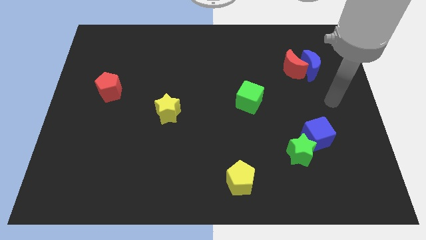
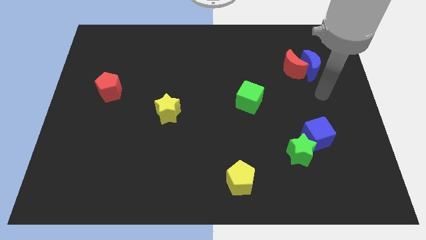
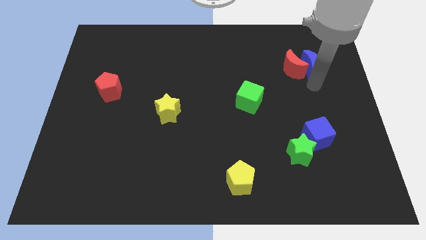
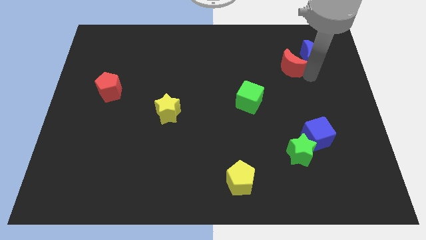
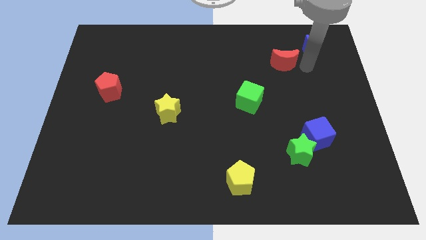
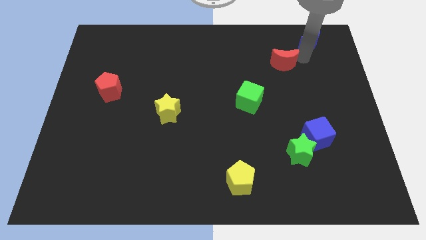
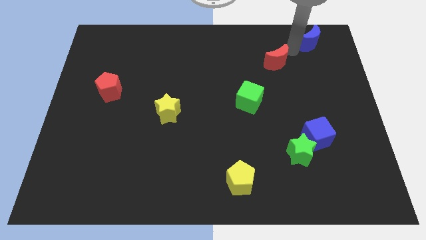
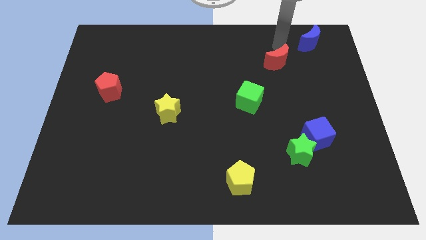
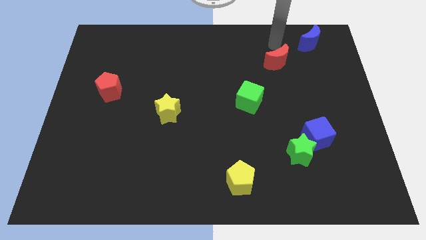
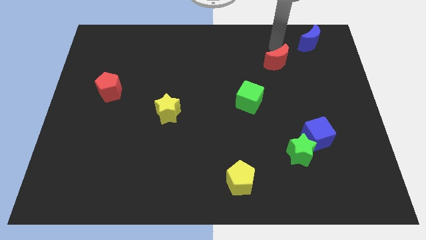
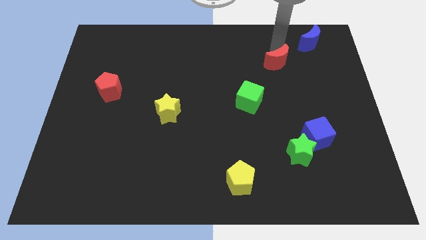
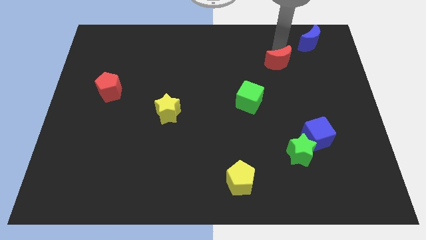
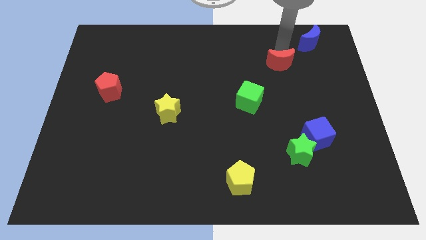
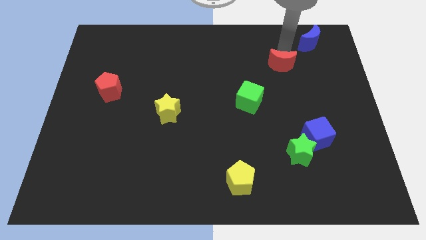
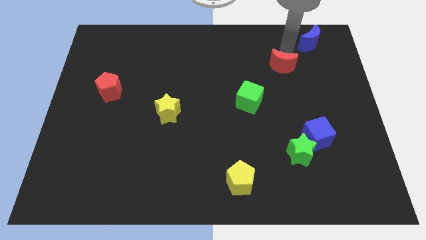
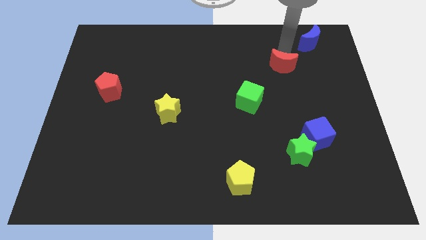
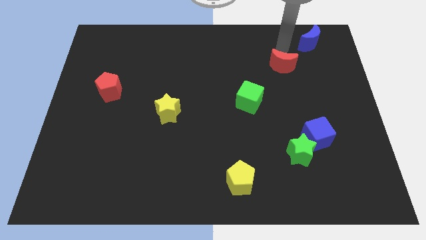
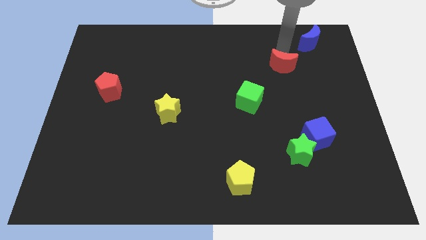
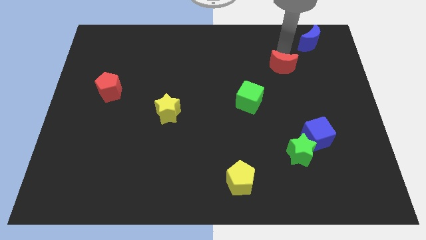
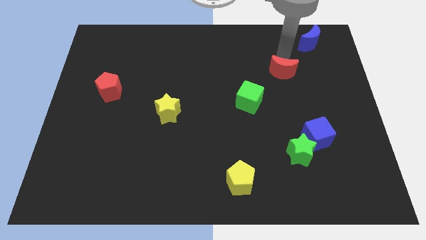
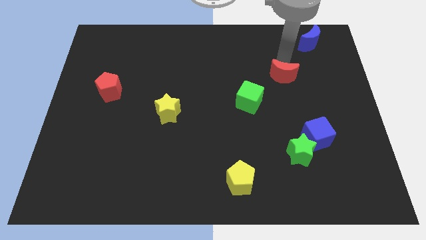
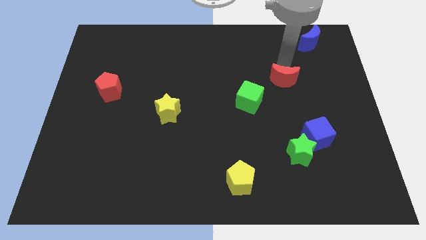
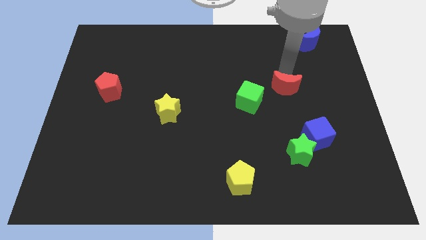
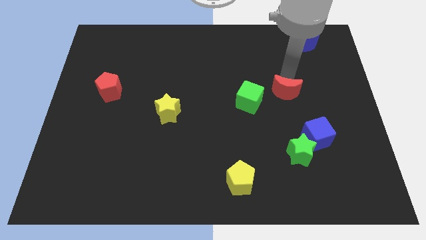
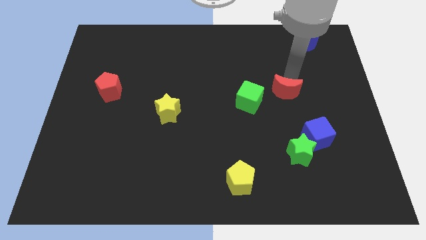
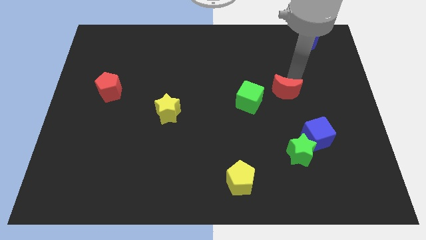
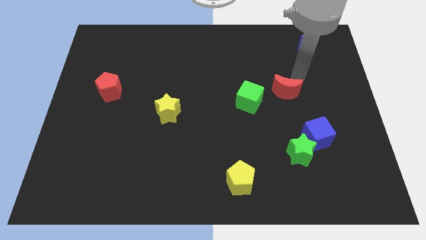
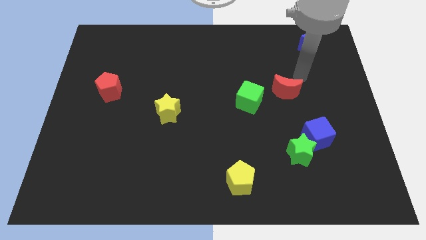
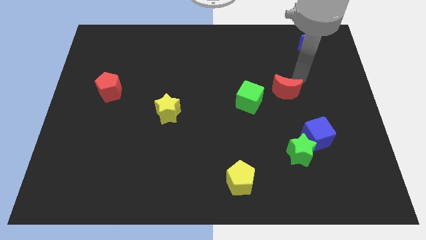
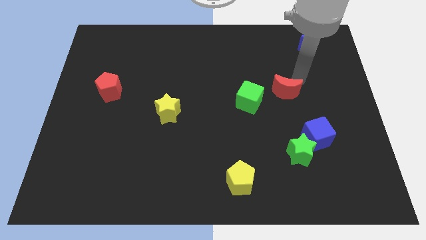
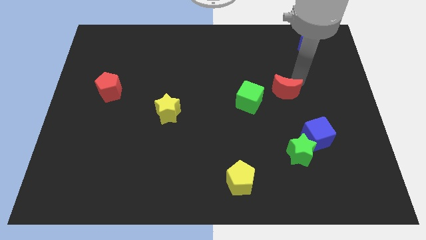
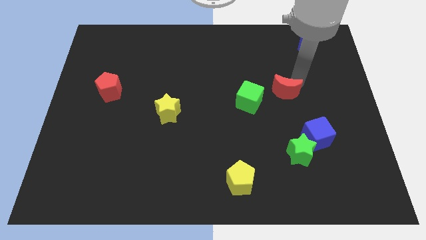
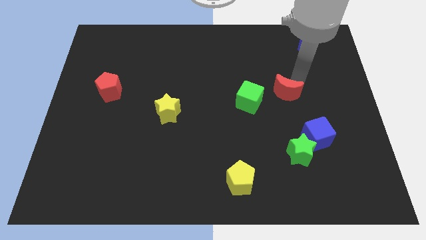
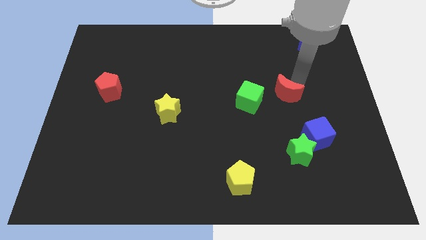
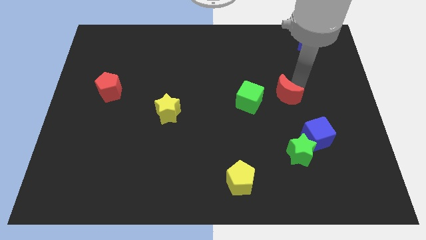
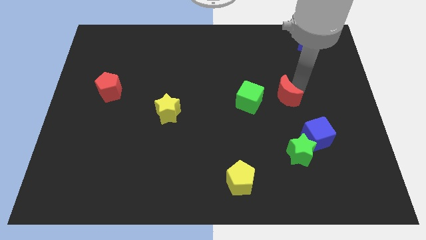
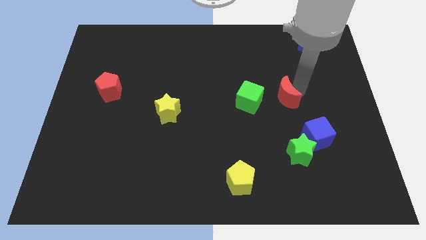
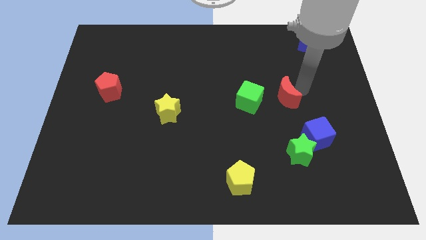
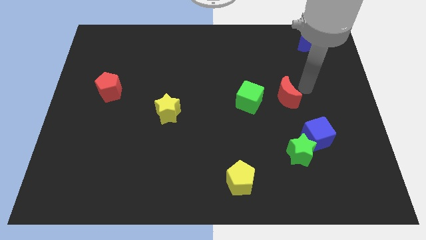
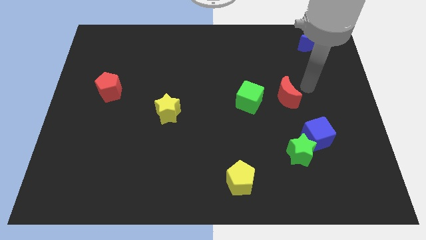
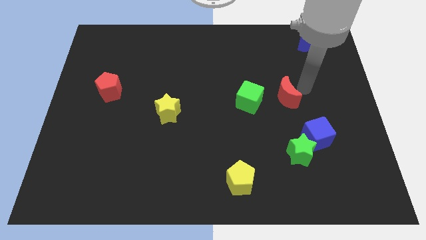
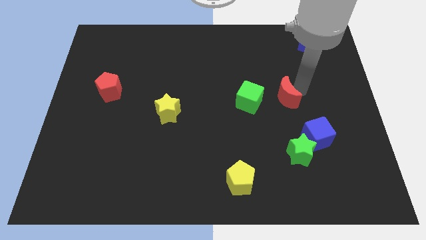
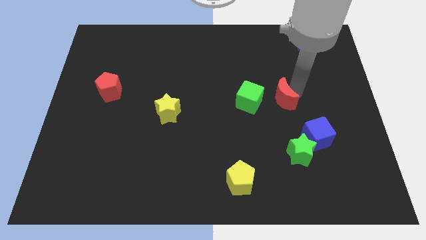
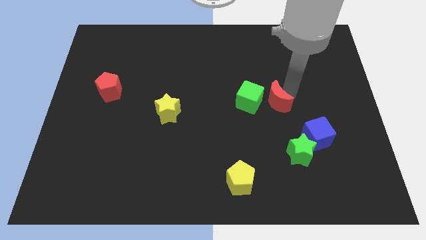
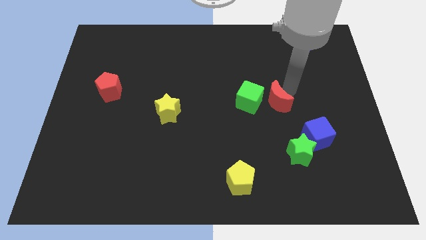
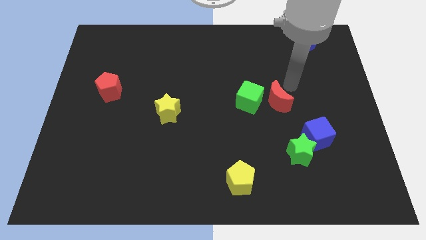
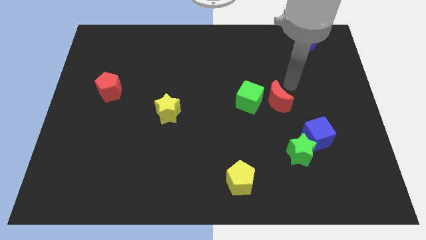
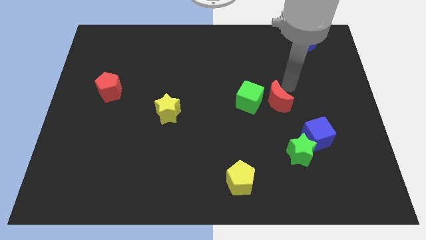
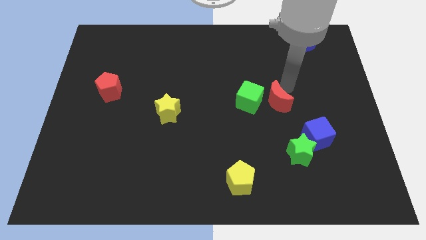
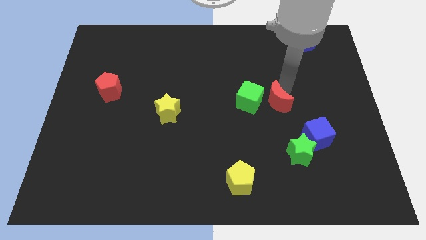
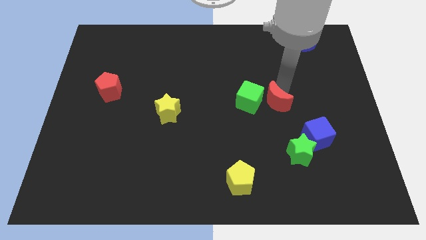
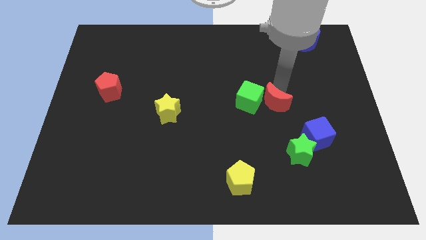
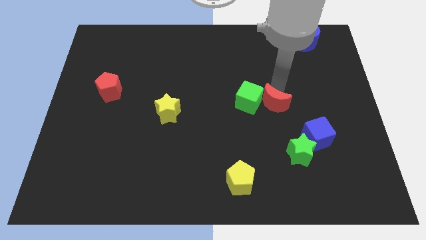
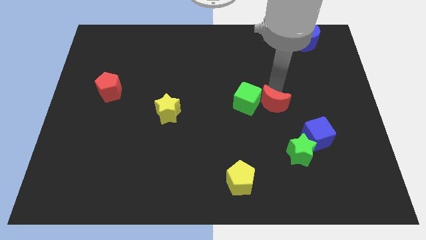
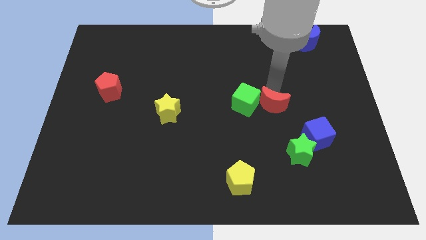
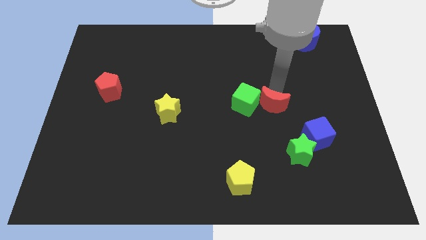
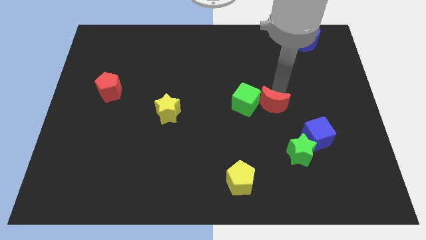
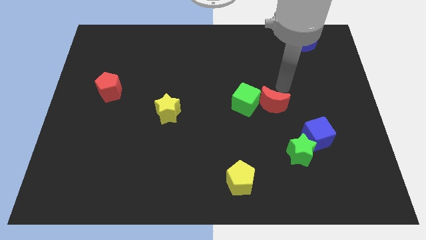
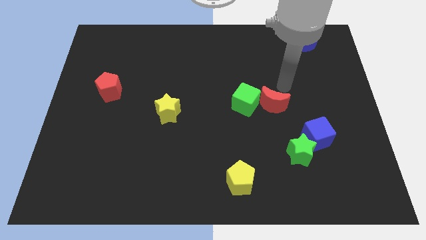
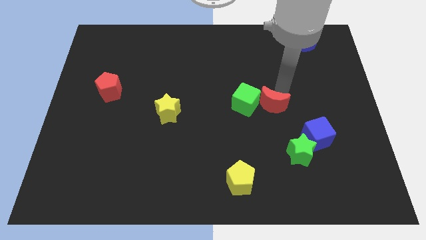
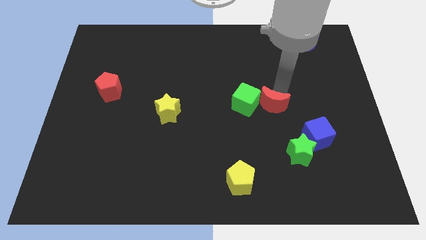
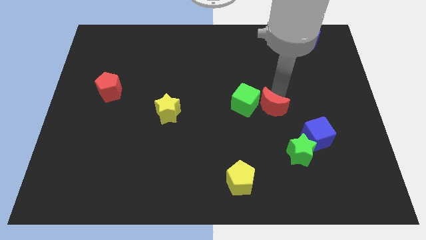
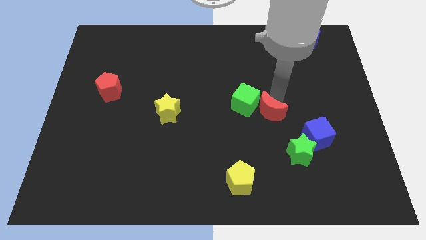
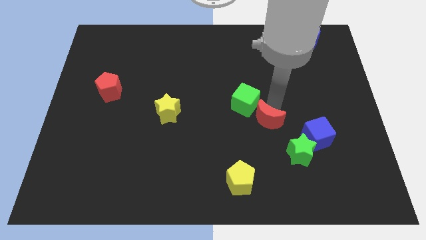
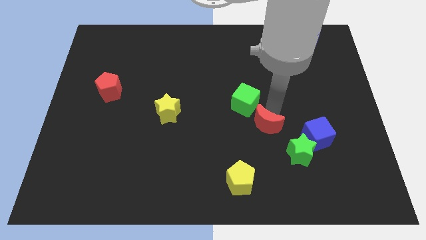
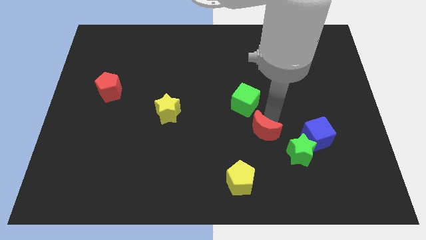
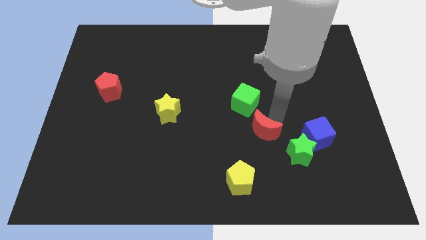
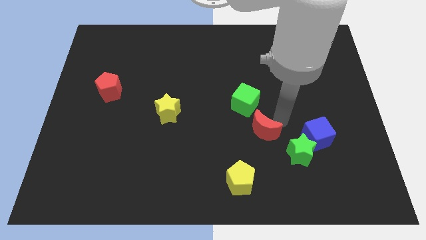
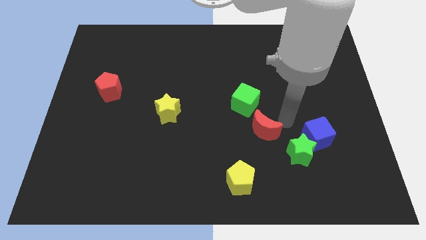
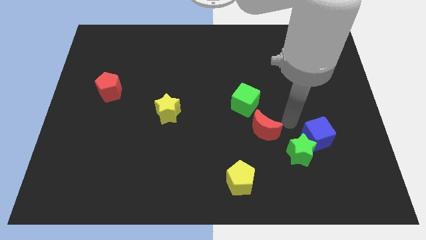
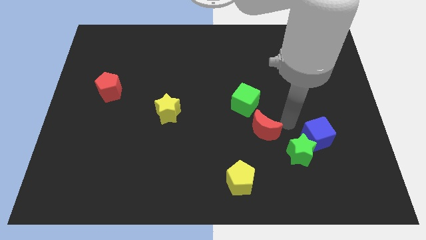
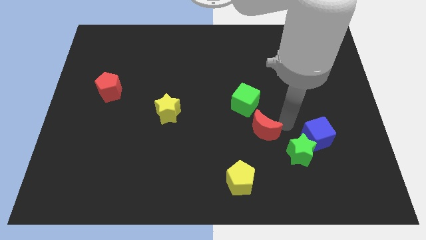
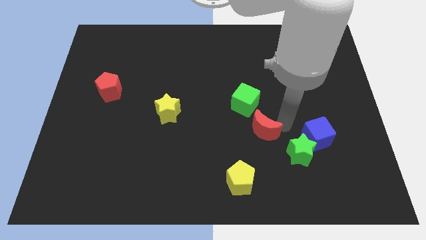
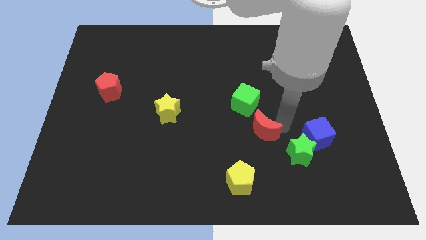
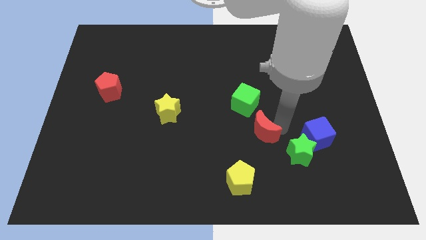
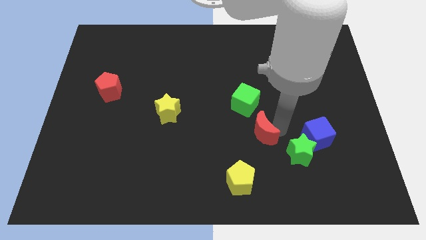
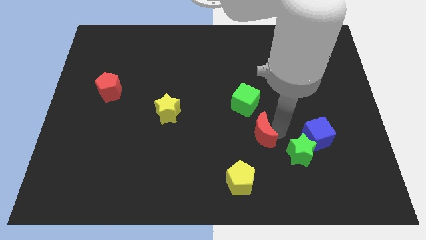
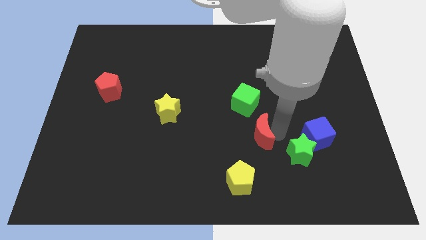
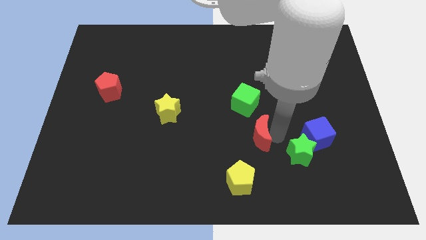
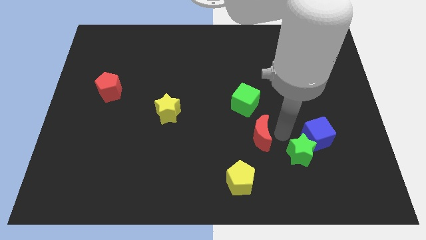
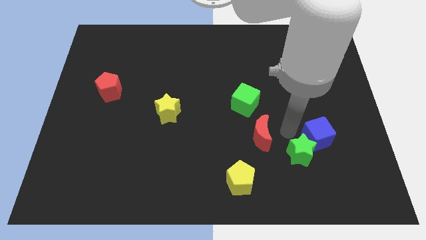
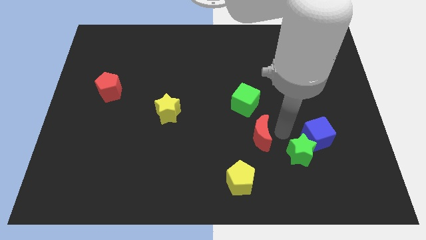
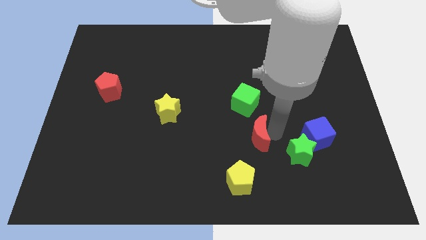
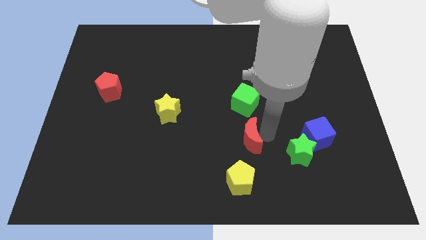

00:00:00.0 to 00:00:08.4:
move the red moon down and then left
